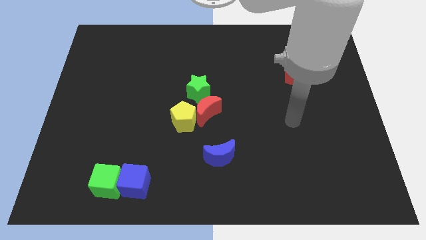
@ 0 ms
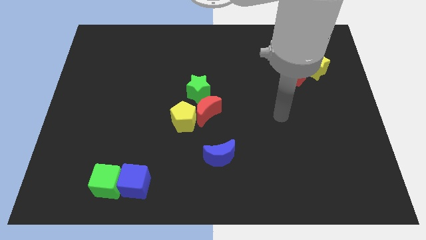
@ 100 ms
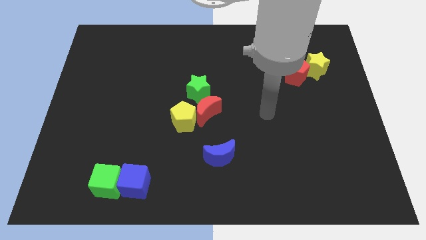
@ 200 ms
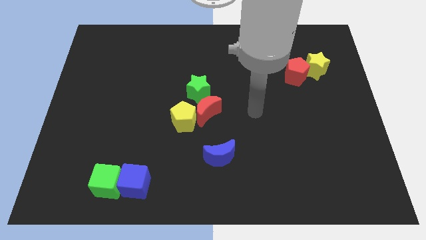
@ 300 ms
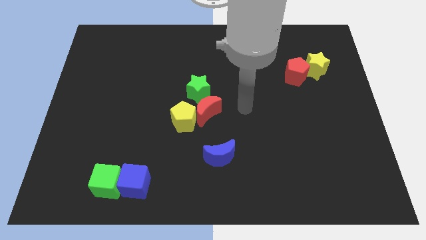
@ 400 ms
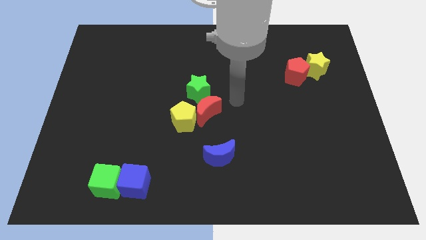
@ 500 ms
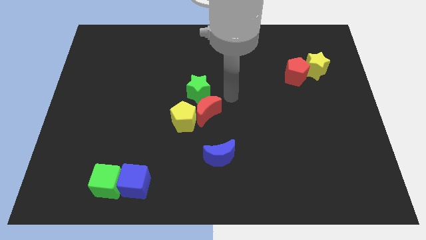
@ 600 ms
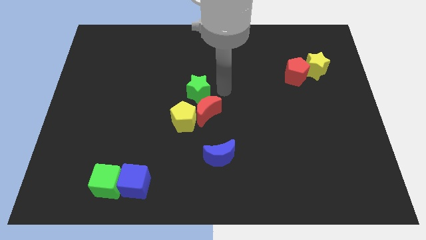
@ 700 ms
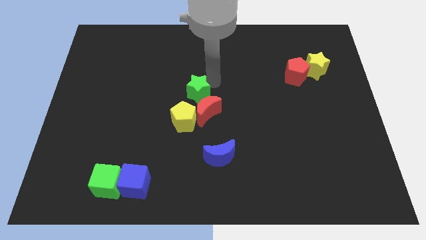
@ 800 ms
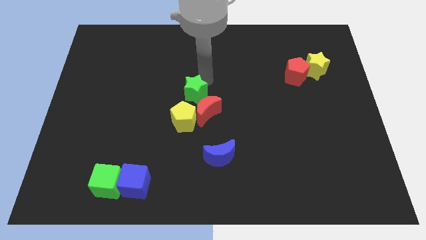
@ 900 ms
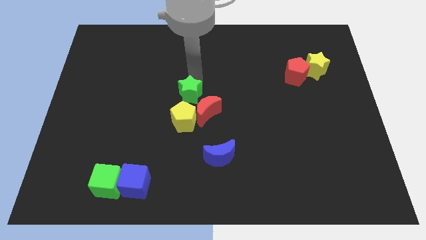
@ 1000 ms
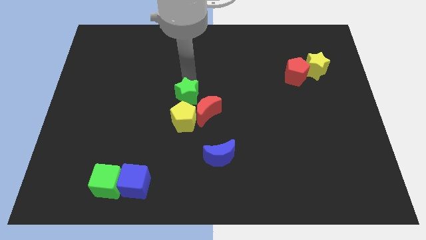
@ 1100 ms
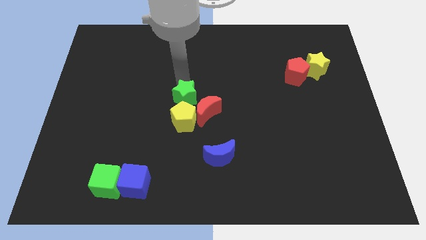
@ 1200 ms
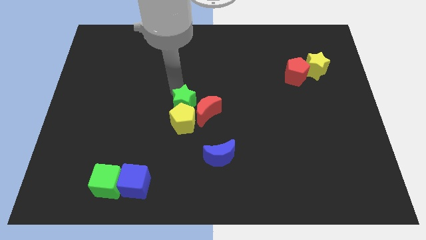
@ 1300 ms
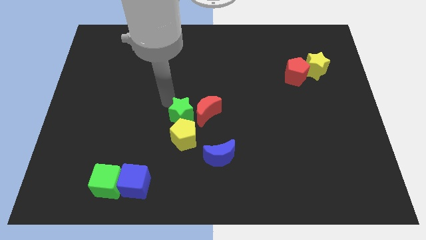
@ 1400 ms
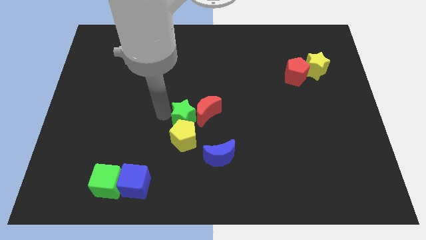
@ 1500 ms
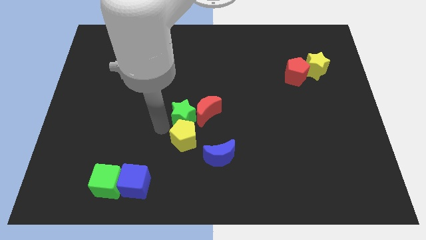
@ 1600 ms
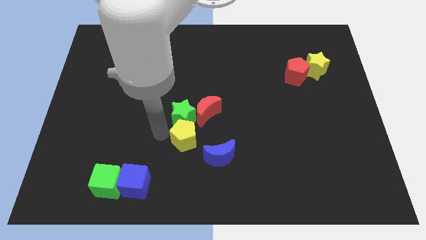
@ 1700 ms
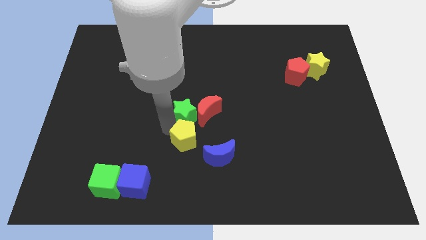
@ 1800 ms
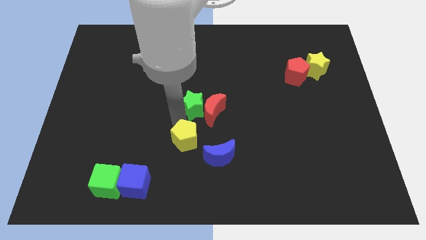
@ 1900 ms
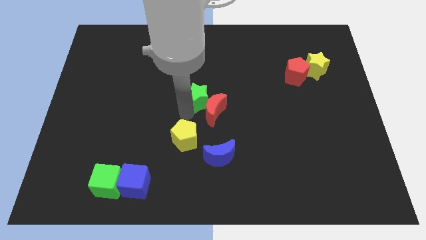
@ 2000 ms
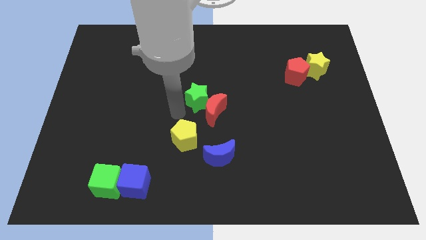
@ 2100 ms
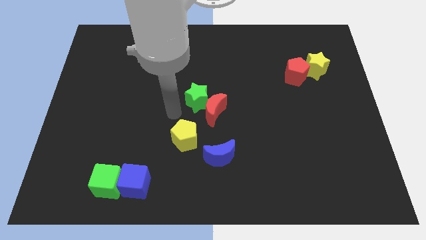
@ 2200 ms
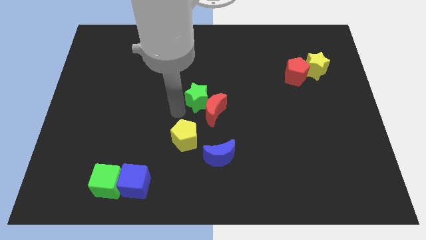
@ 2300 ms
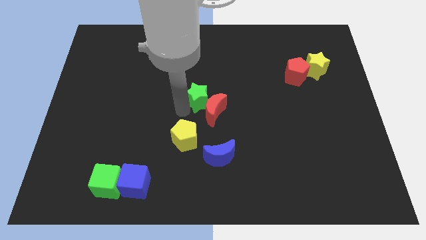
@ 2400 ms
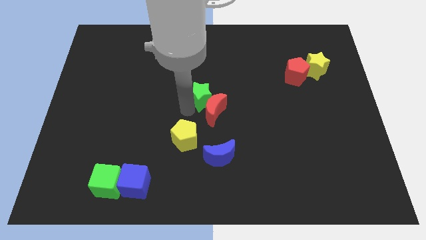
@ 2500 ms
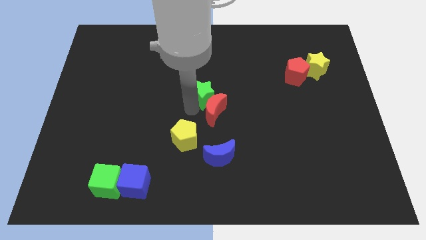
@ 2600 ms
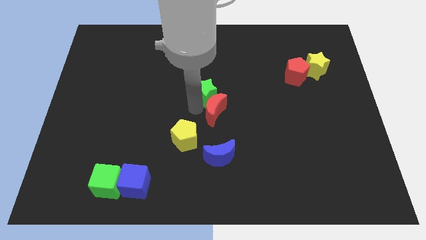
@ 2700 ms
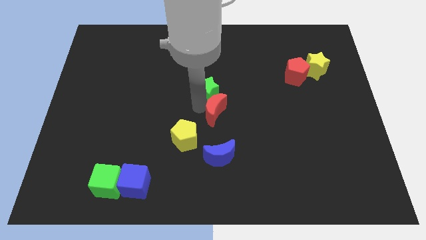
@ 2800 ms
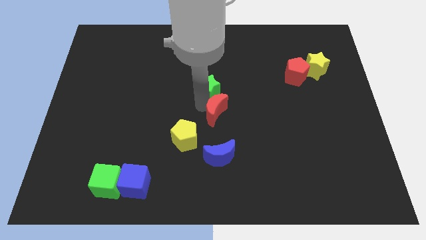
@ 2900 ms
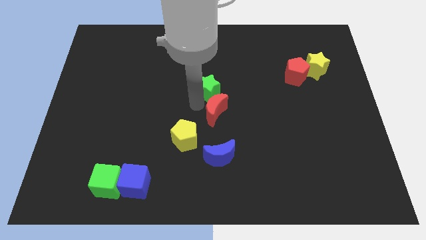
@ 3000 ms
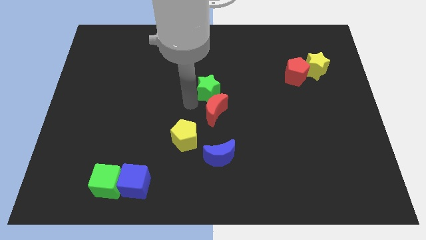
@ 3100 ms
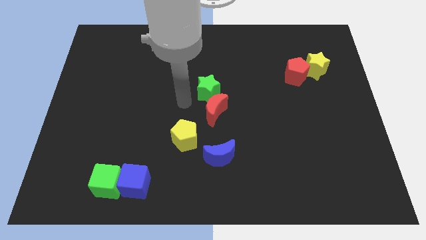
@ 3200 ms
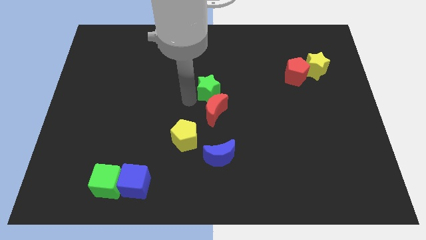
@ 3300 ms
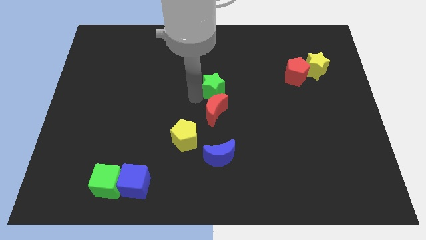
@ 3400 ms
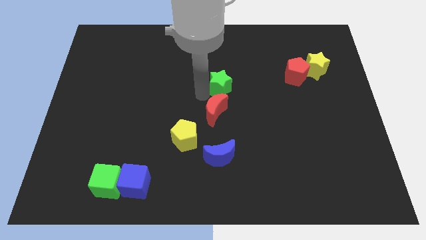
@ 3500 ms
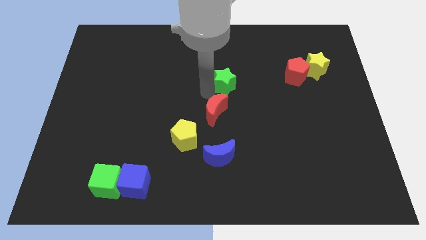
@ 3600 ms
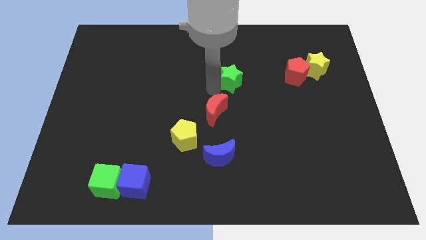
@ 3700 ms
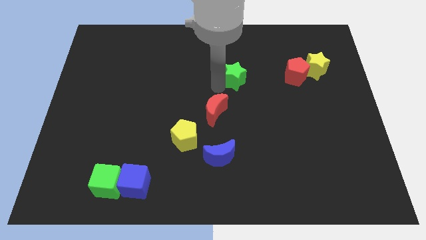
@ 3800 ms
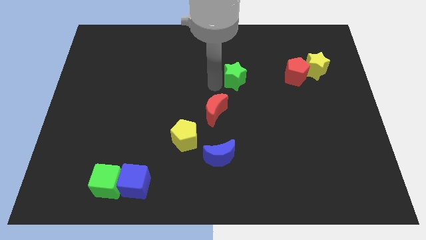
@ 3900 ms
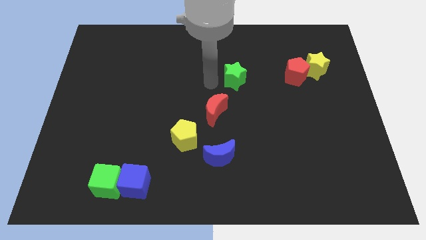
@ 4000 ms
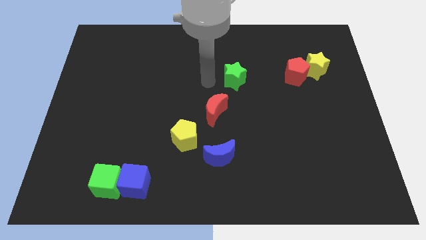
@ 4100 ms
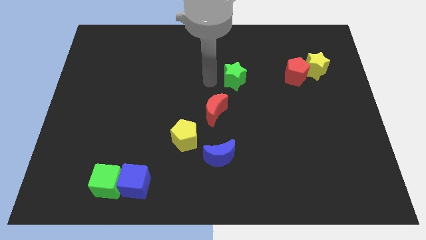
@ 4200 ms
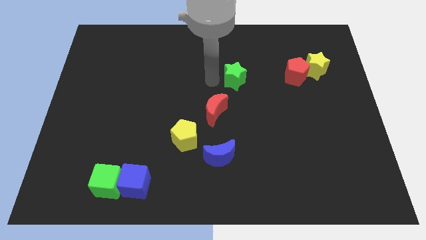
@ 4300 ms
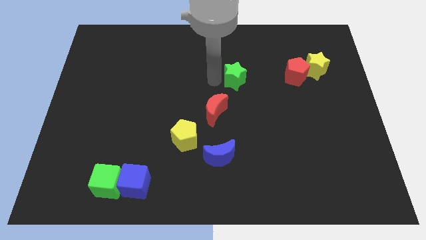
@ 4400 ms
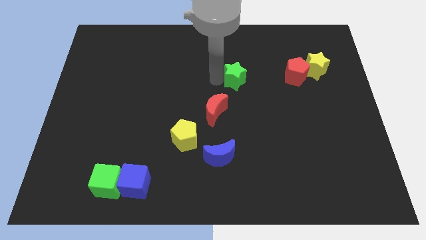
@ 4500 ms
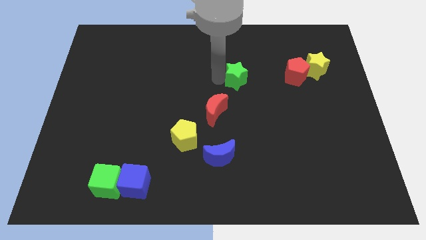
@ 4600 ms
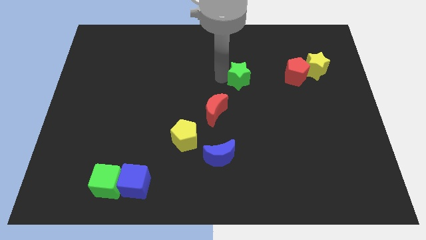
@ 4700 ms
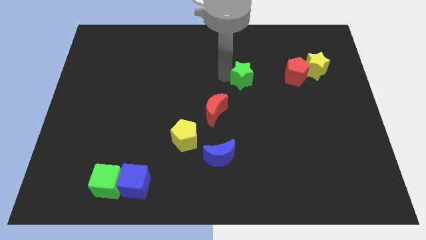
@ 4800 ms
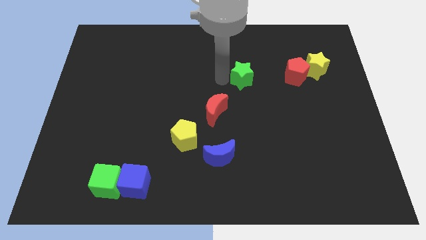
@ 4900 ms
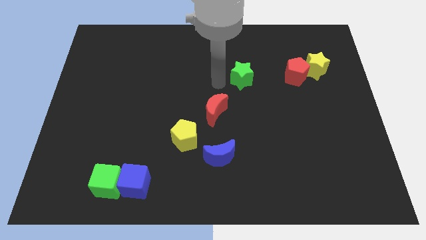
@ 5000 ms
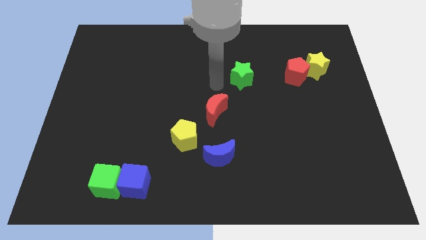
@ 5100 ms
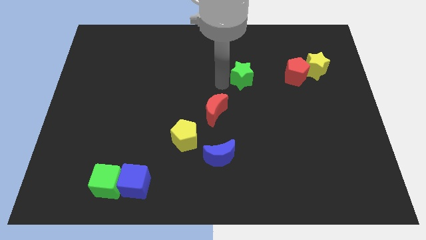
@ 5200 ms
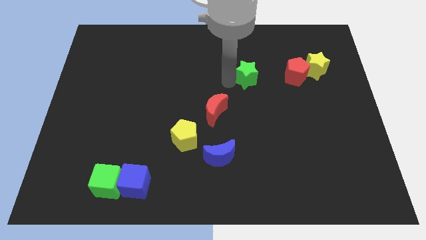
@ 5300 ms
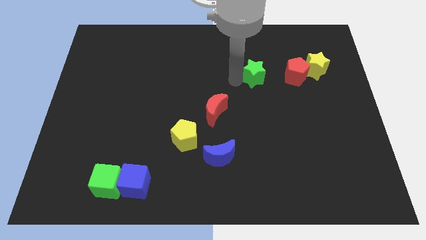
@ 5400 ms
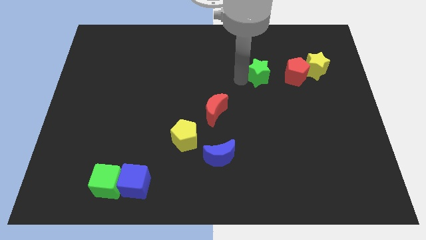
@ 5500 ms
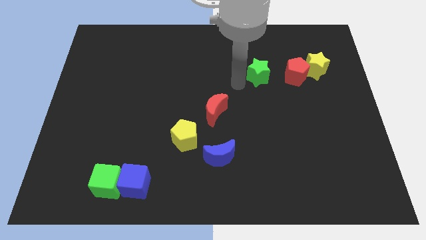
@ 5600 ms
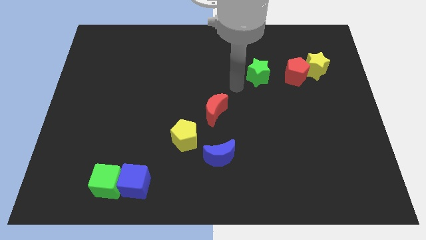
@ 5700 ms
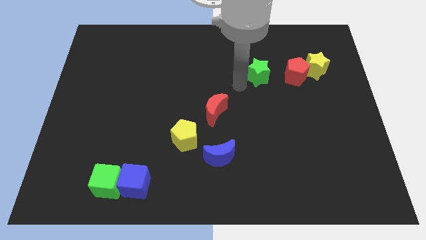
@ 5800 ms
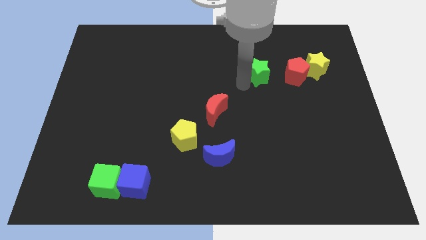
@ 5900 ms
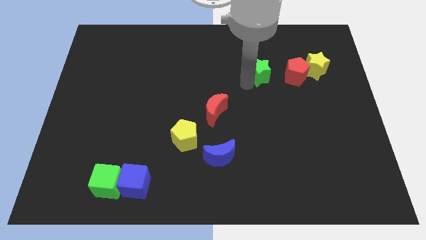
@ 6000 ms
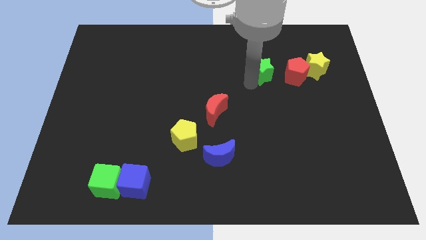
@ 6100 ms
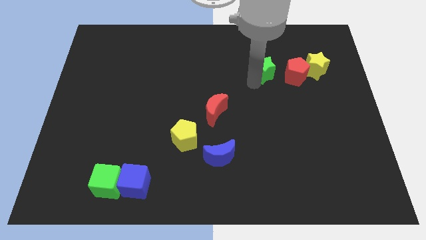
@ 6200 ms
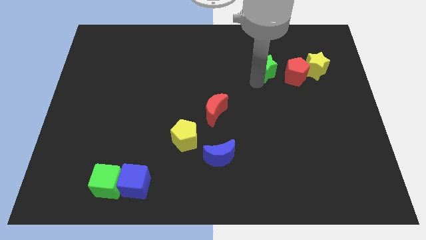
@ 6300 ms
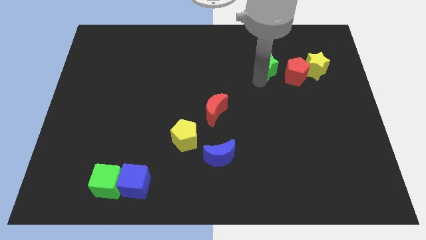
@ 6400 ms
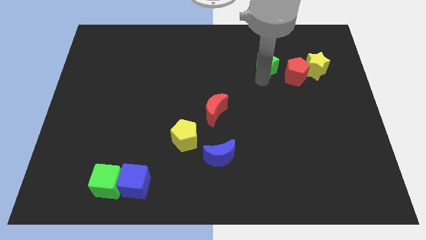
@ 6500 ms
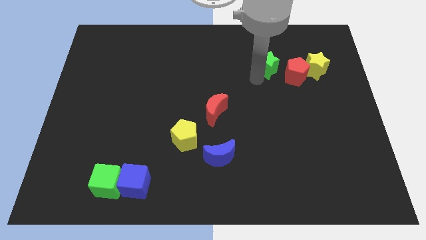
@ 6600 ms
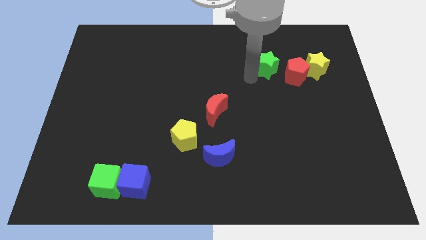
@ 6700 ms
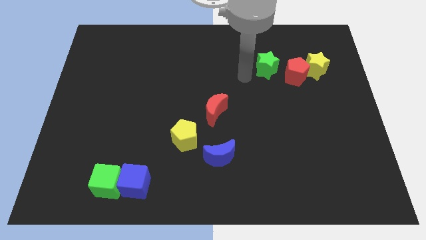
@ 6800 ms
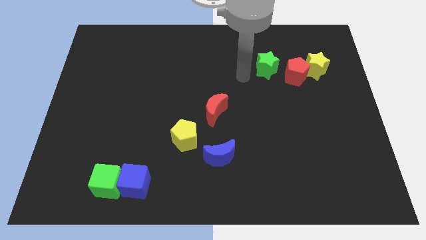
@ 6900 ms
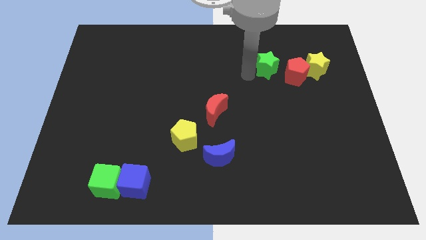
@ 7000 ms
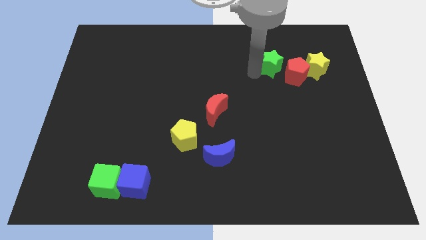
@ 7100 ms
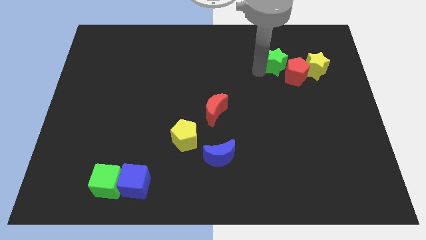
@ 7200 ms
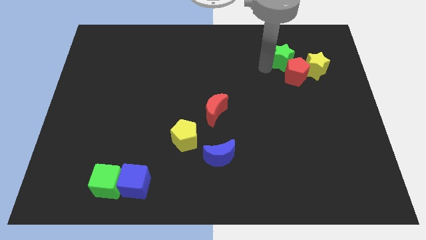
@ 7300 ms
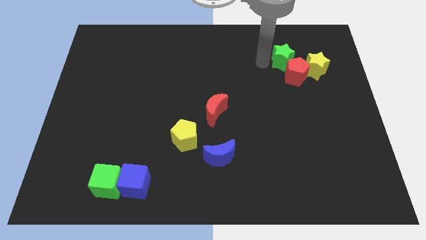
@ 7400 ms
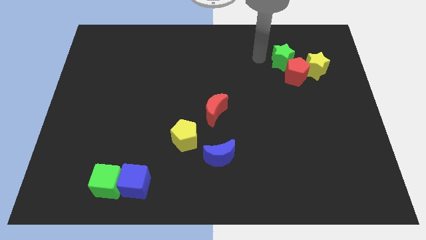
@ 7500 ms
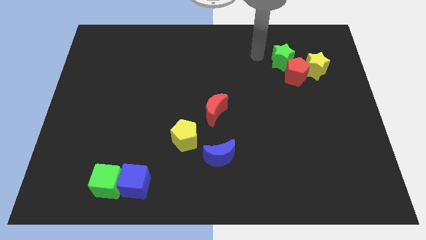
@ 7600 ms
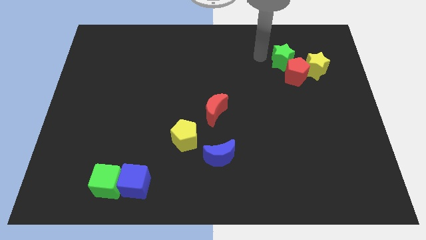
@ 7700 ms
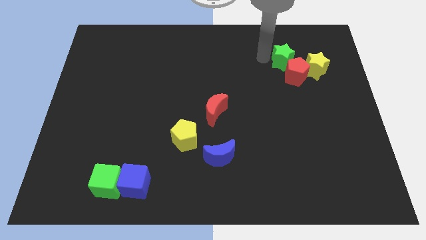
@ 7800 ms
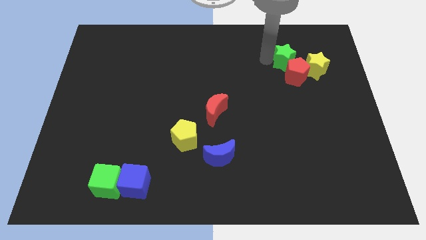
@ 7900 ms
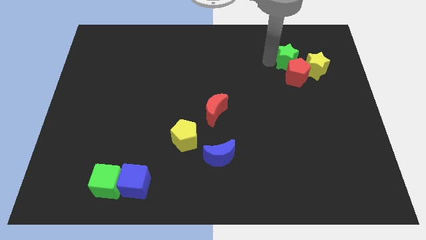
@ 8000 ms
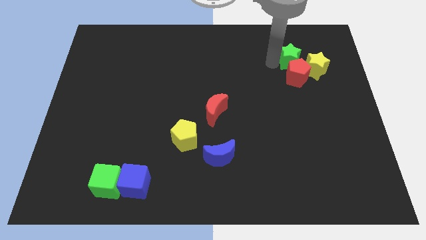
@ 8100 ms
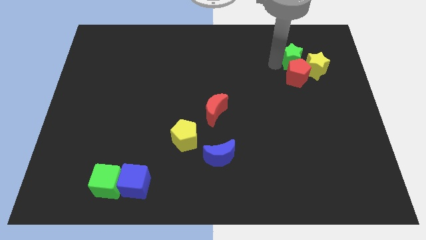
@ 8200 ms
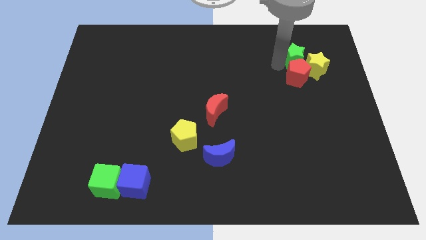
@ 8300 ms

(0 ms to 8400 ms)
put the green star towards the yellow star
